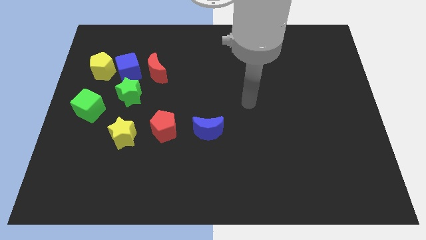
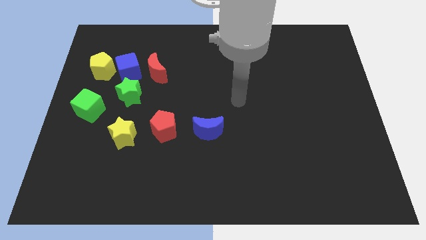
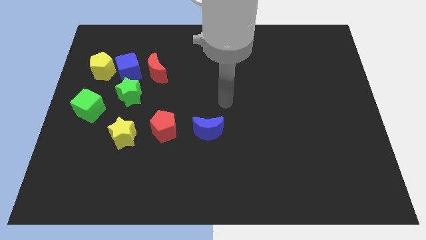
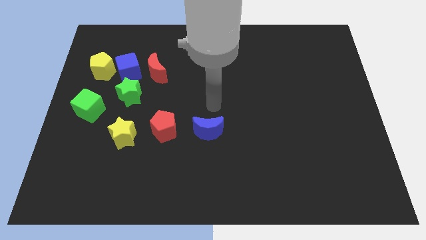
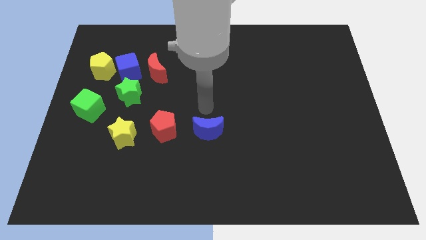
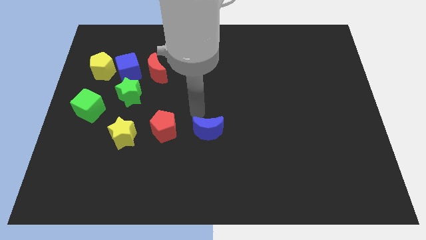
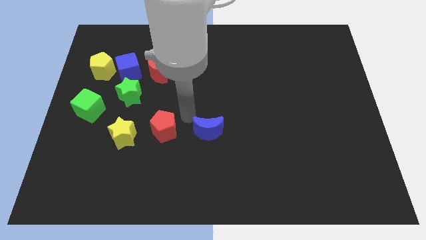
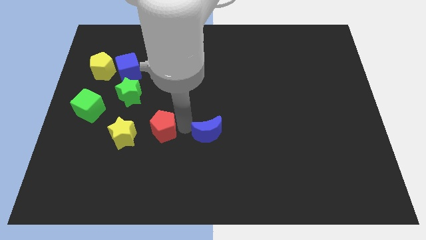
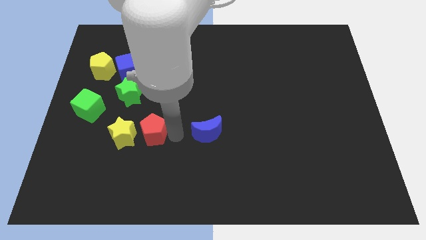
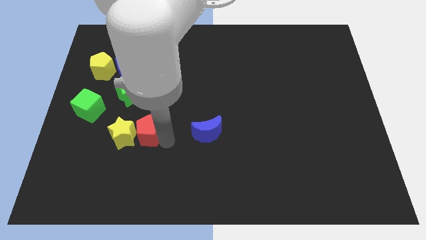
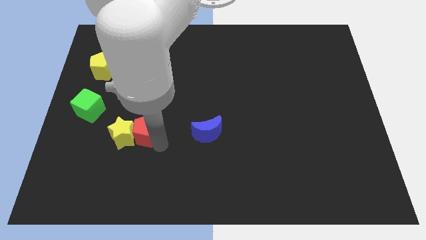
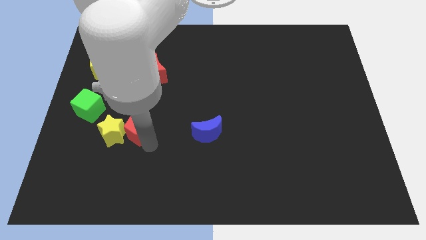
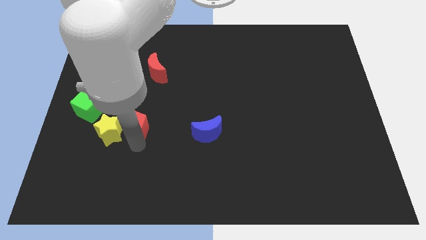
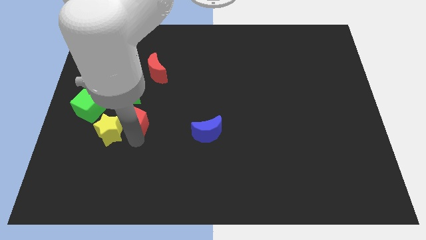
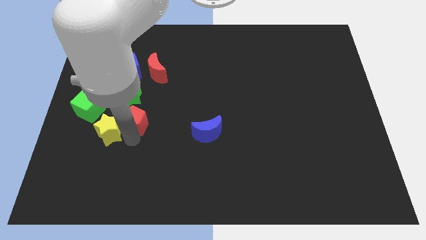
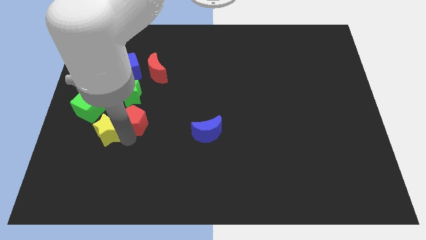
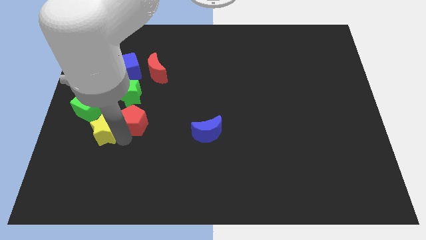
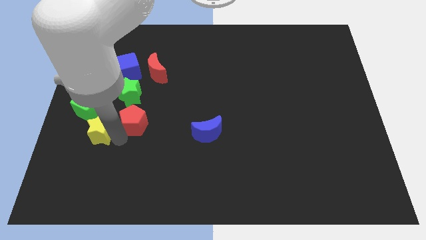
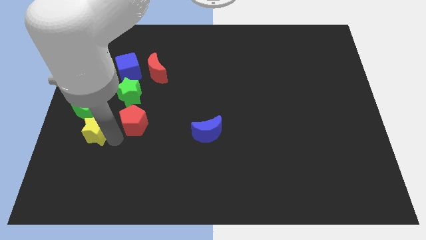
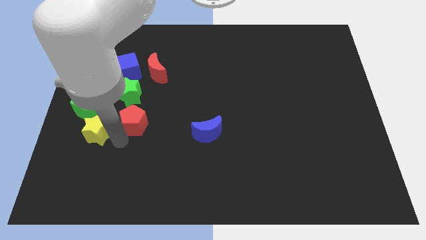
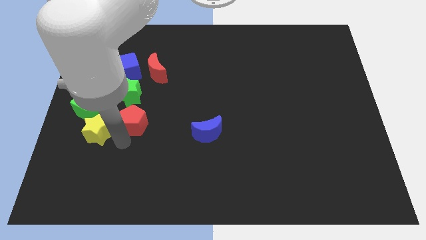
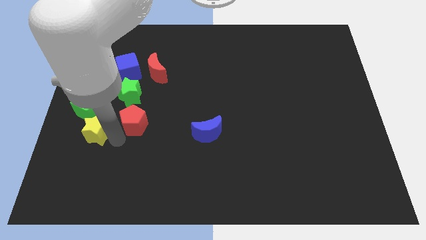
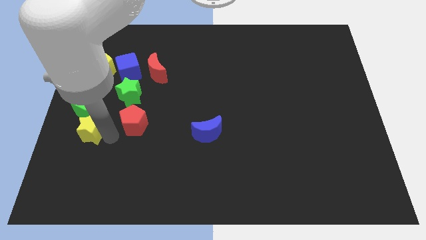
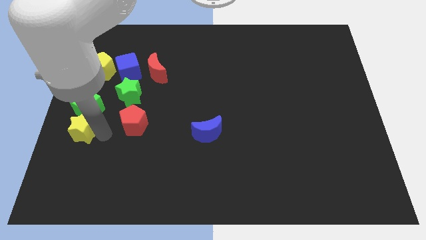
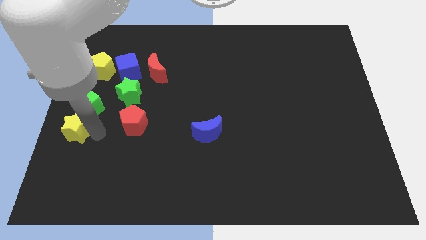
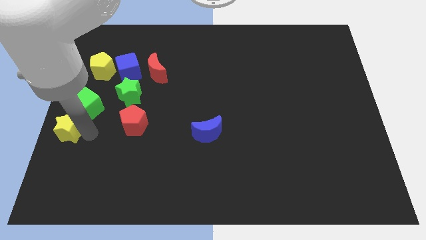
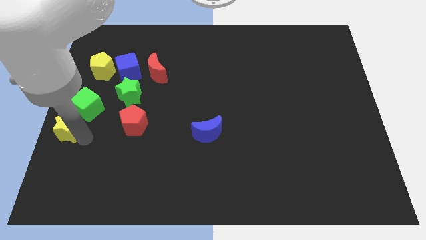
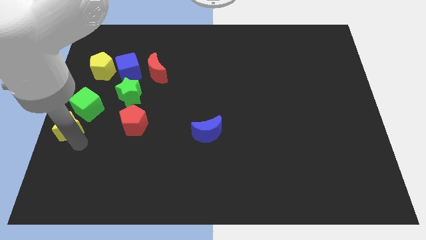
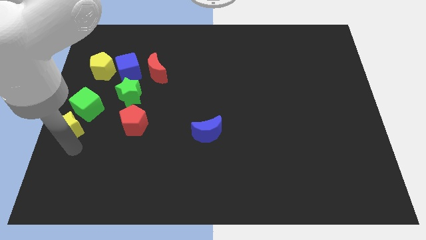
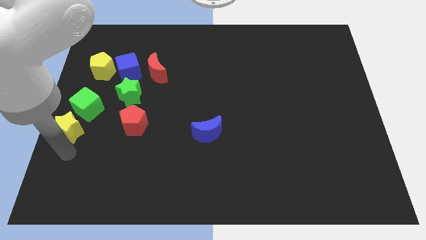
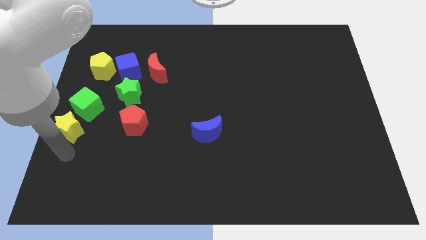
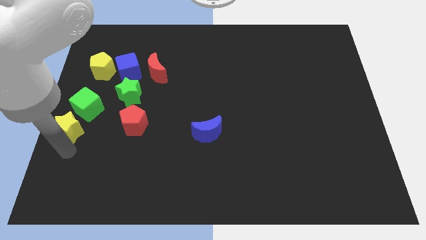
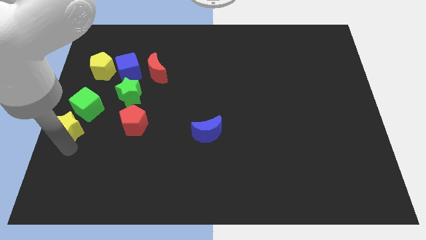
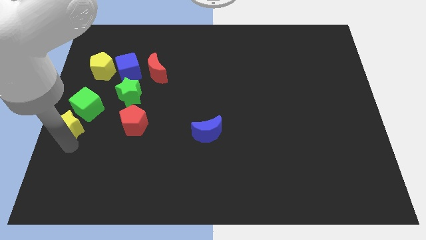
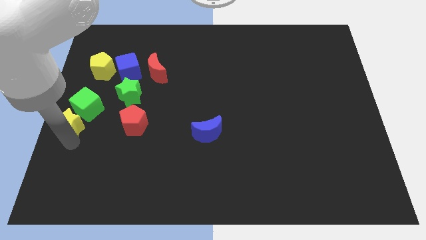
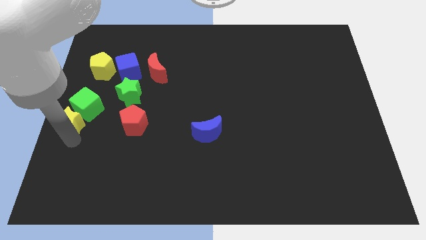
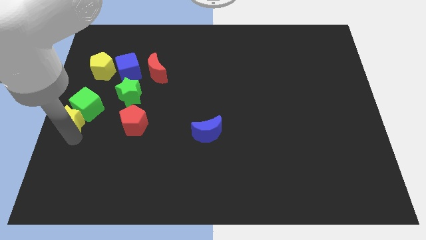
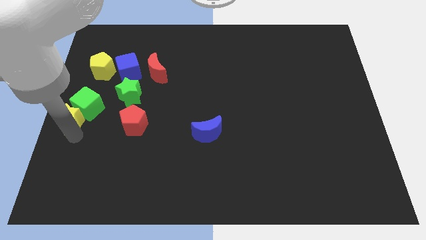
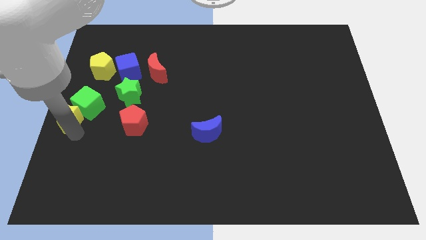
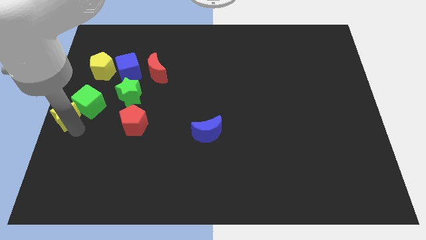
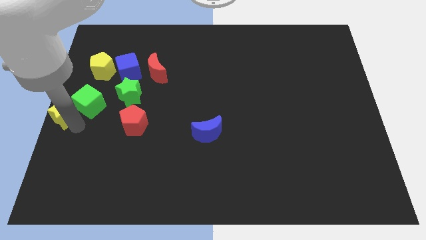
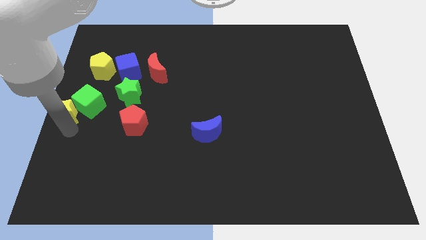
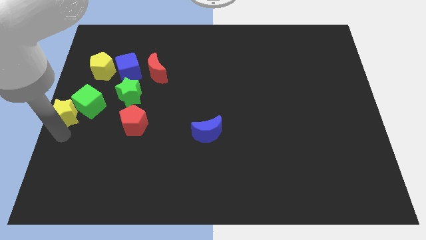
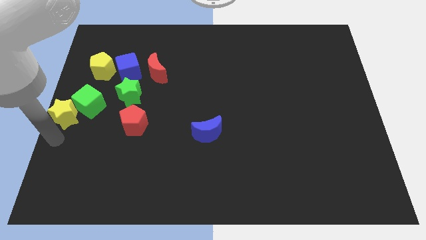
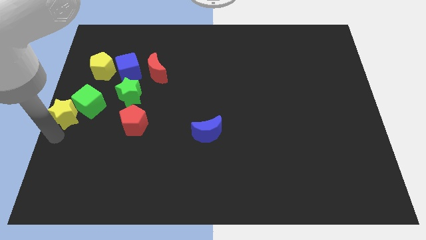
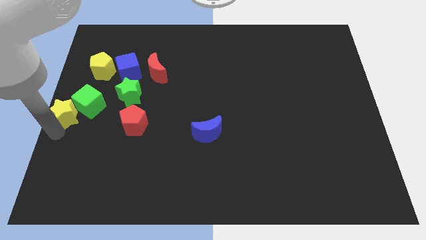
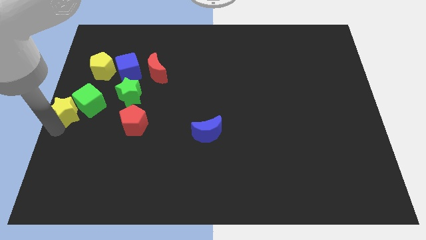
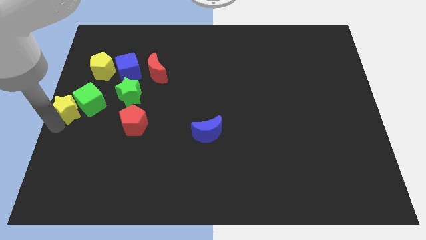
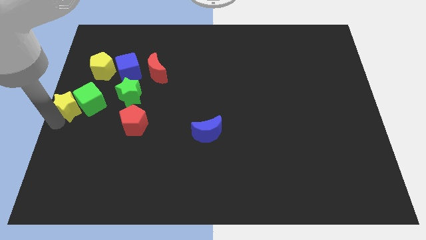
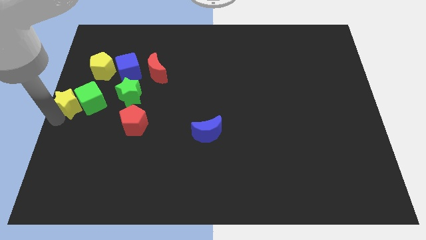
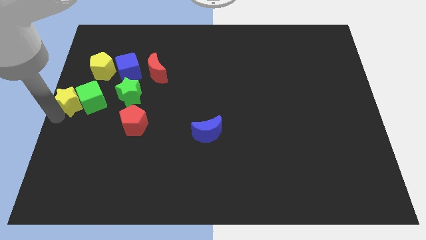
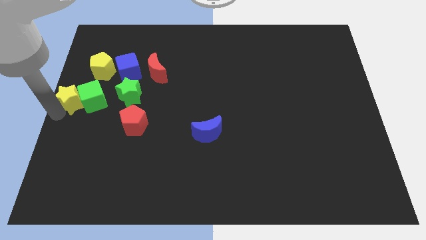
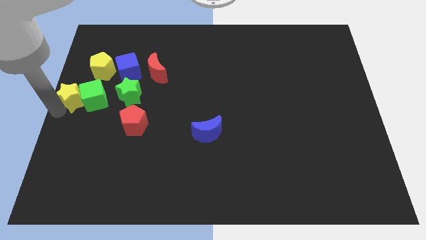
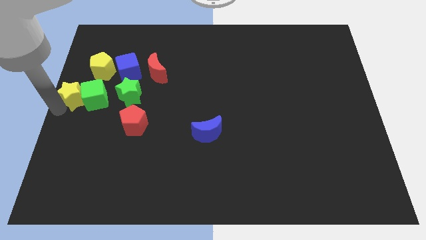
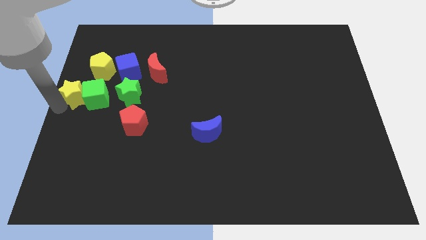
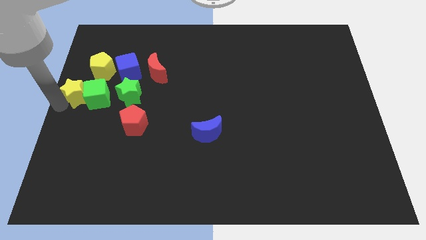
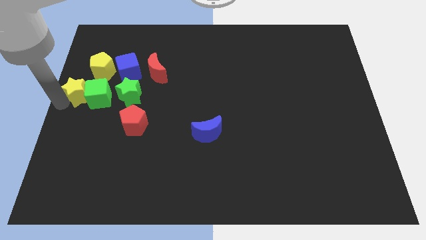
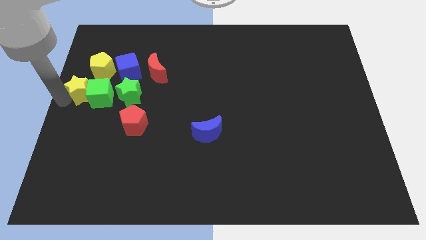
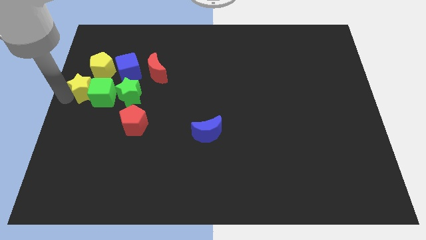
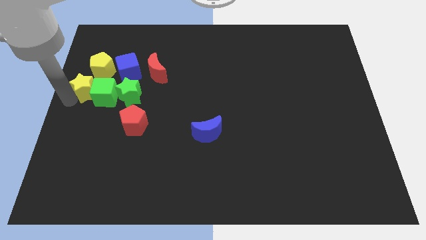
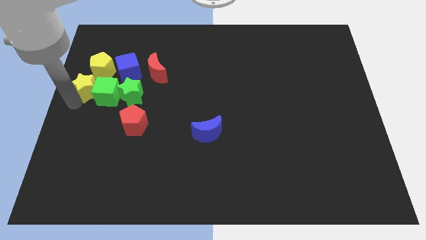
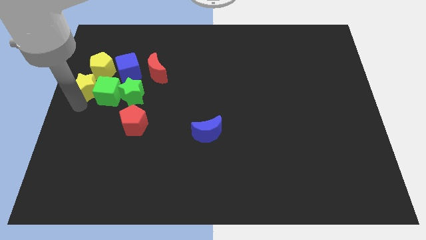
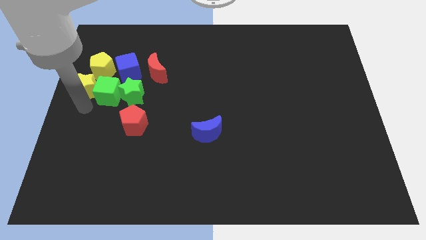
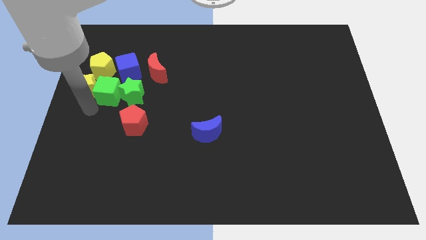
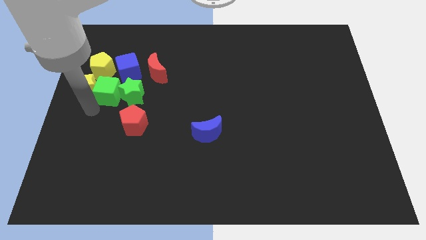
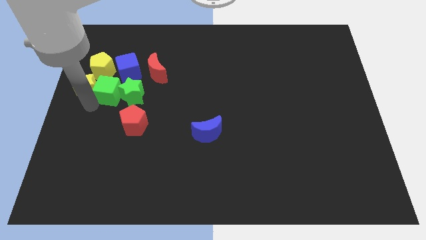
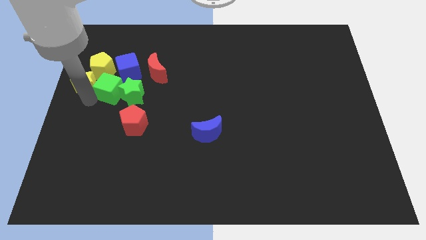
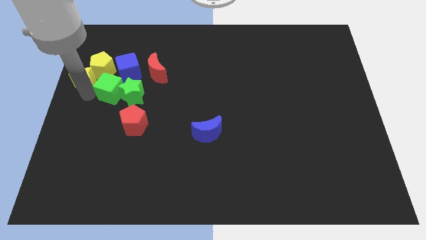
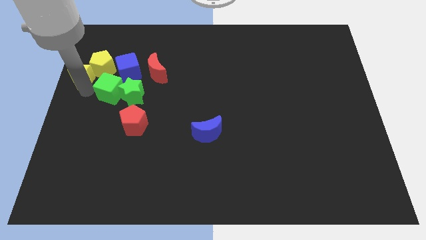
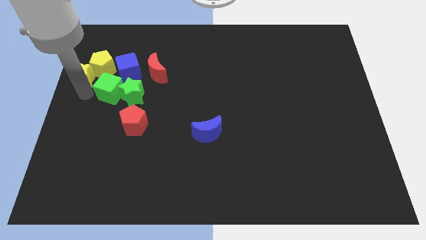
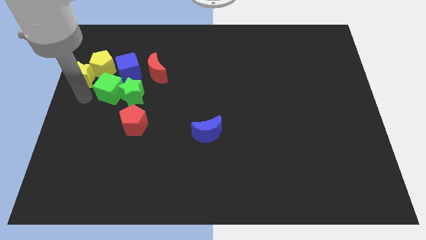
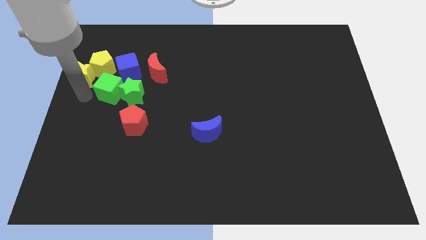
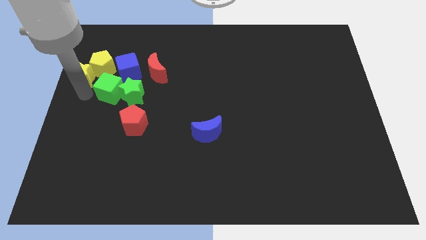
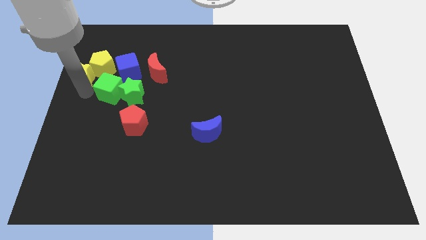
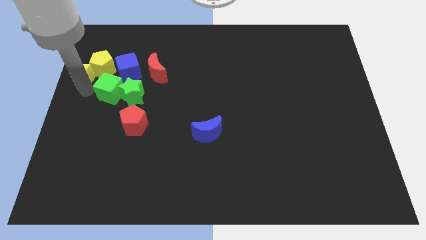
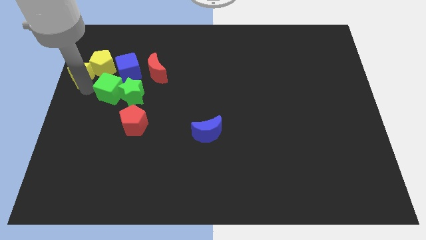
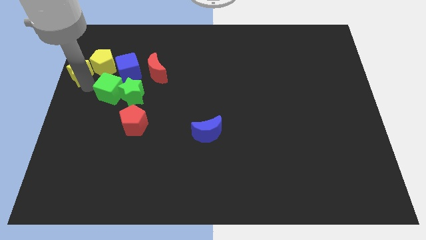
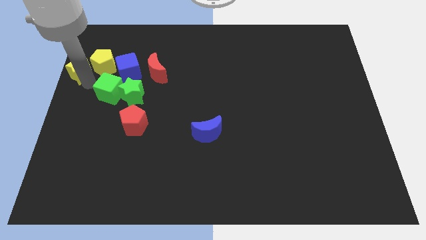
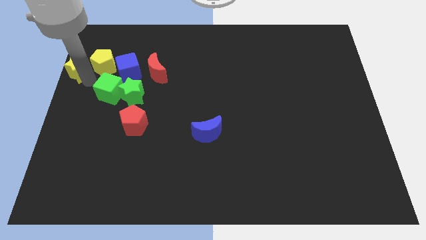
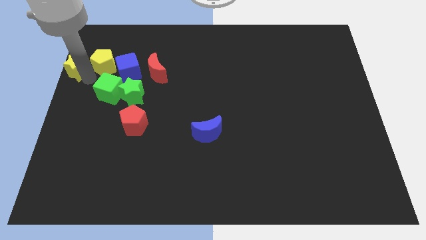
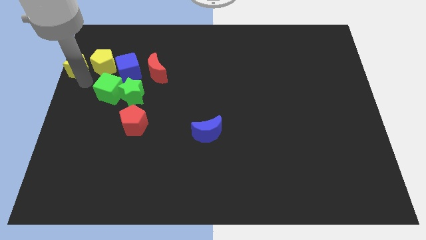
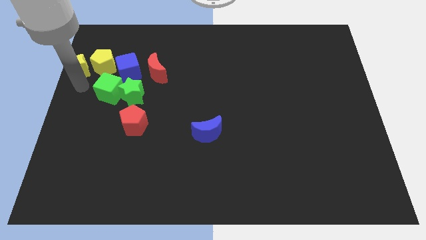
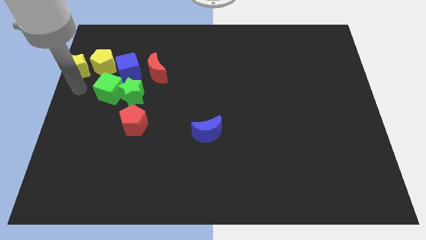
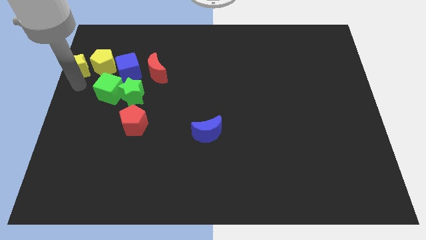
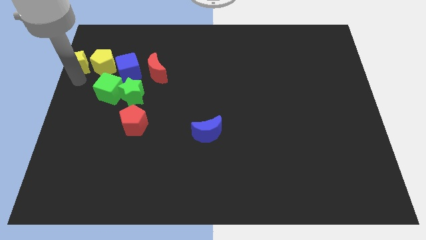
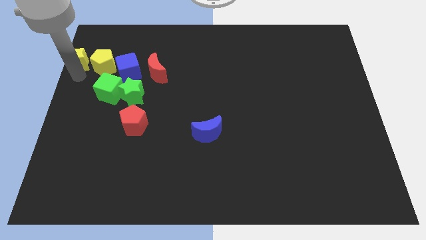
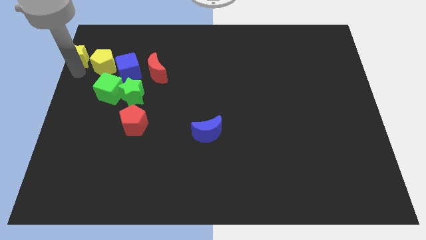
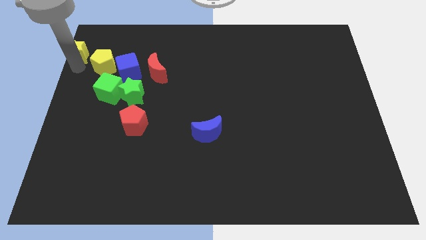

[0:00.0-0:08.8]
push the yellow star to the upper left corner
